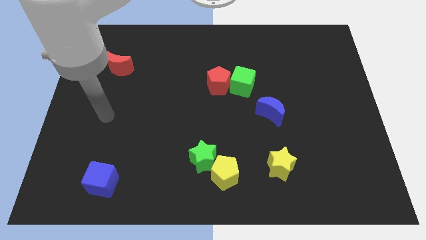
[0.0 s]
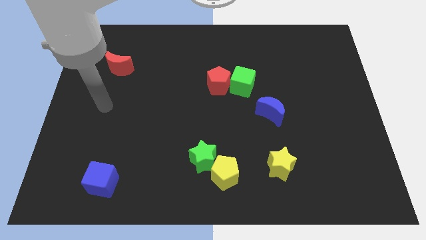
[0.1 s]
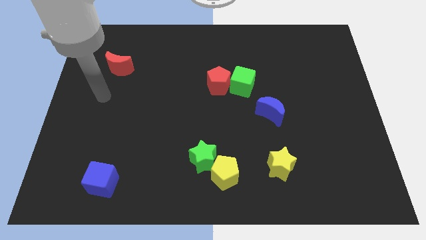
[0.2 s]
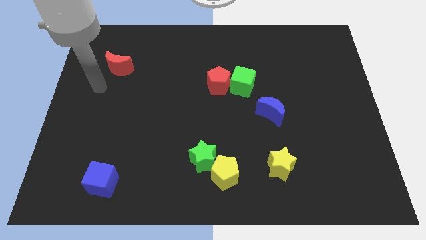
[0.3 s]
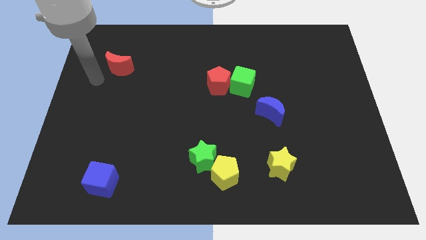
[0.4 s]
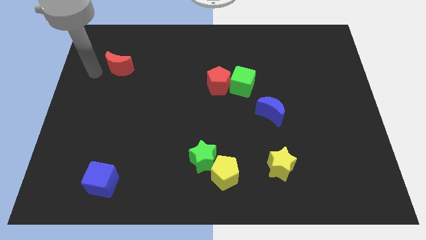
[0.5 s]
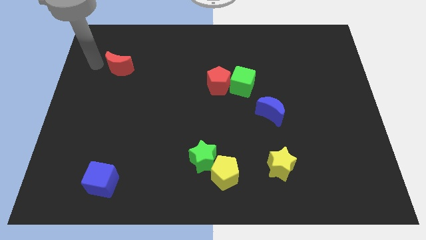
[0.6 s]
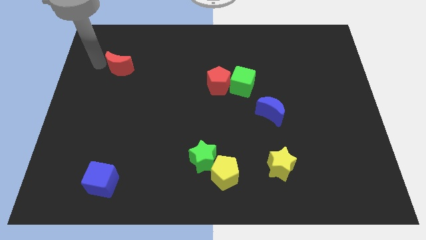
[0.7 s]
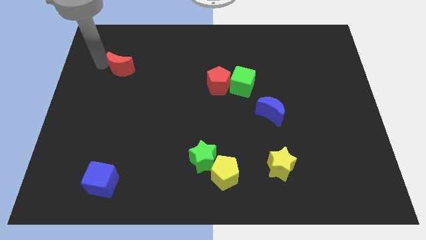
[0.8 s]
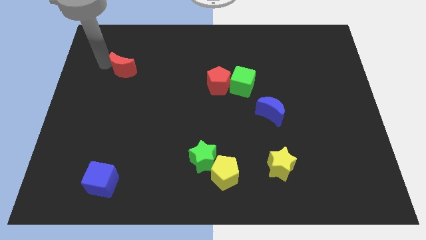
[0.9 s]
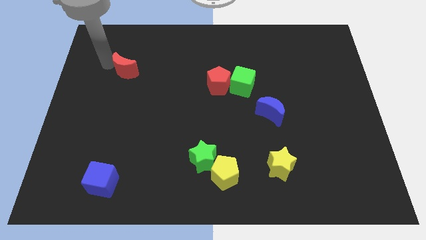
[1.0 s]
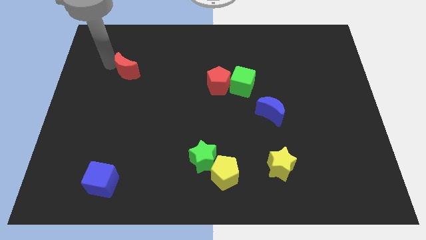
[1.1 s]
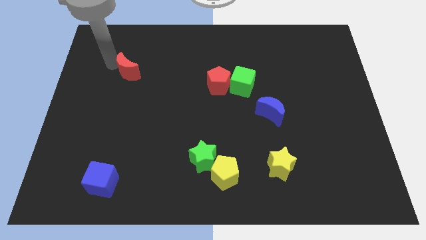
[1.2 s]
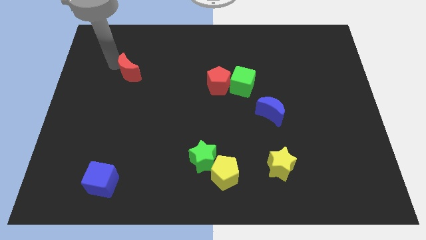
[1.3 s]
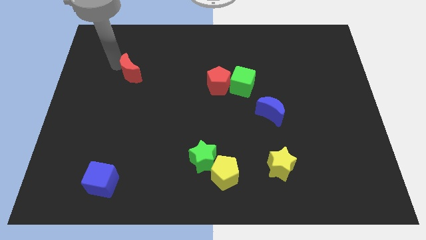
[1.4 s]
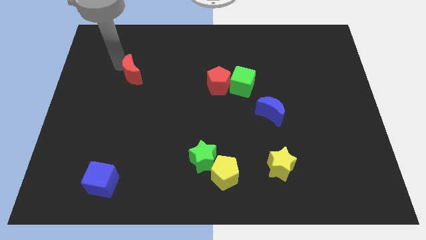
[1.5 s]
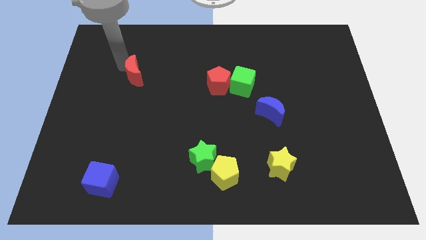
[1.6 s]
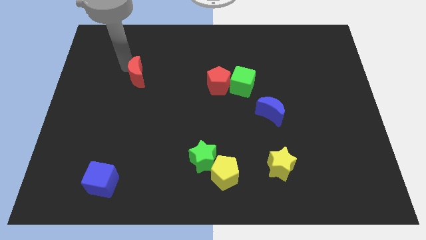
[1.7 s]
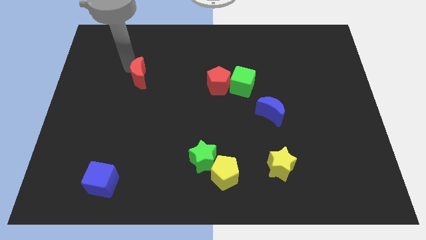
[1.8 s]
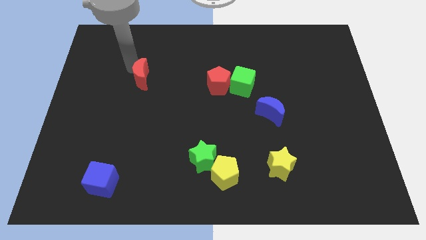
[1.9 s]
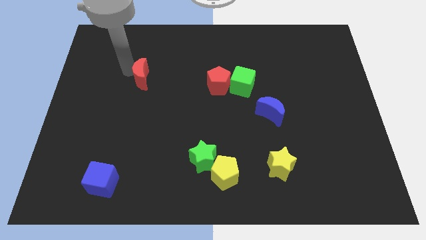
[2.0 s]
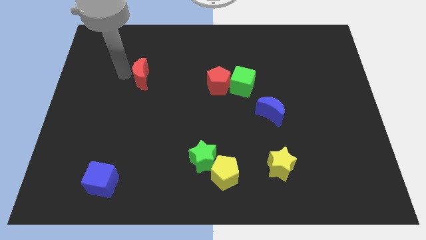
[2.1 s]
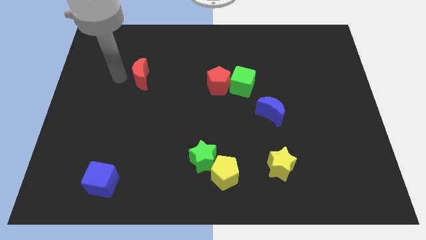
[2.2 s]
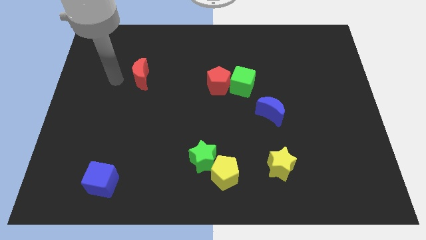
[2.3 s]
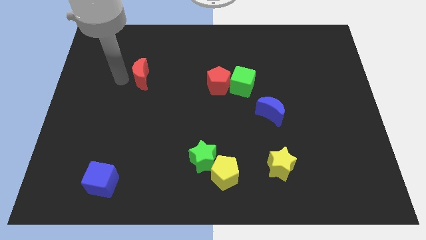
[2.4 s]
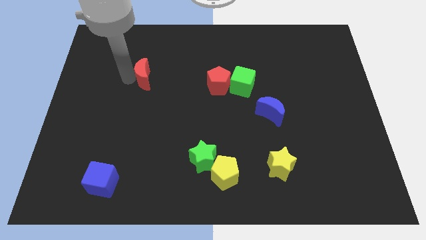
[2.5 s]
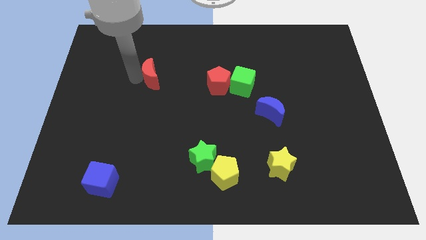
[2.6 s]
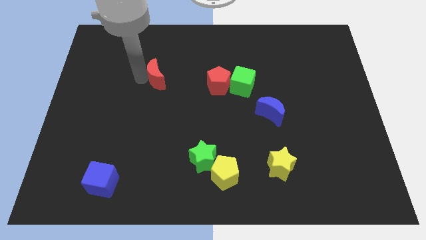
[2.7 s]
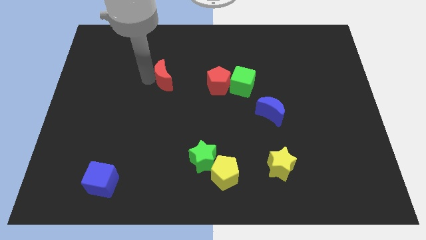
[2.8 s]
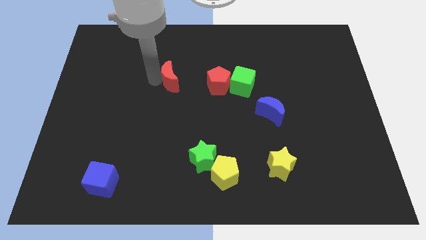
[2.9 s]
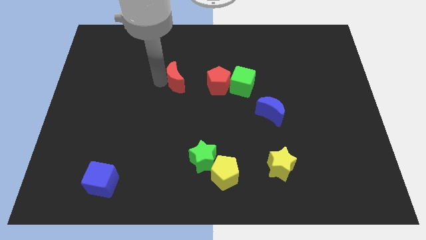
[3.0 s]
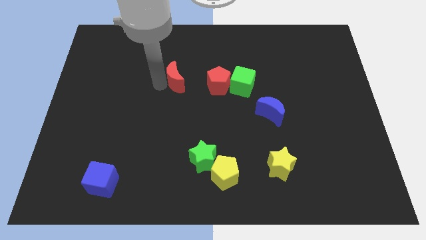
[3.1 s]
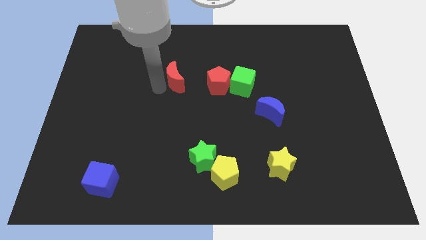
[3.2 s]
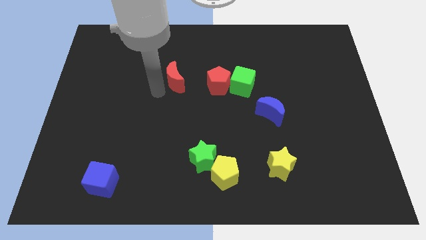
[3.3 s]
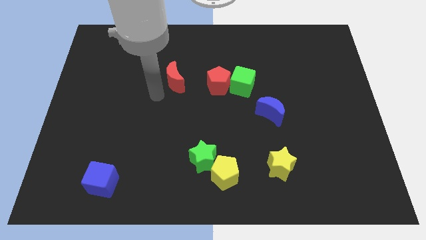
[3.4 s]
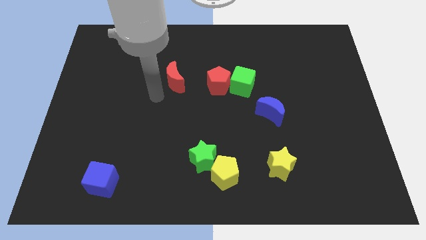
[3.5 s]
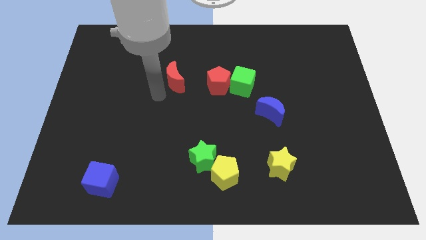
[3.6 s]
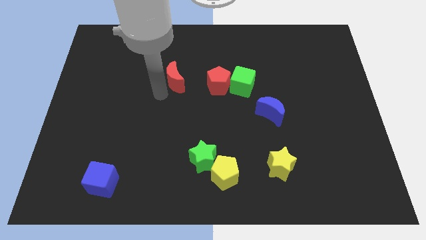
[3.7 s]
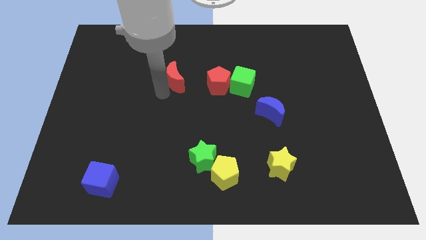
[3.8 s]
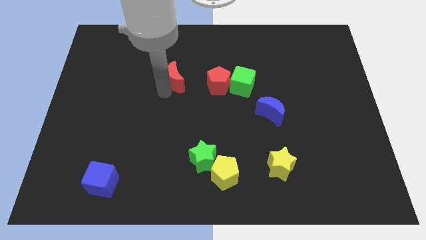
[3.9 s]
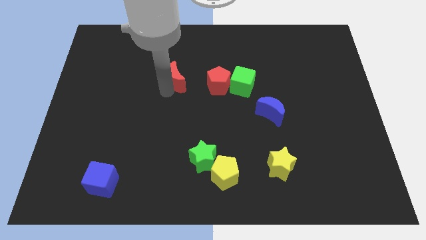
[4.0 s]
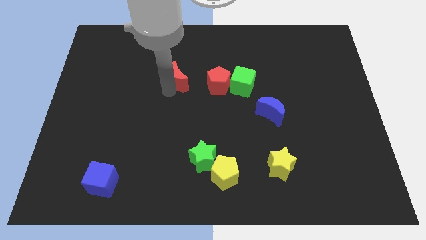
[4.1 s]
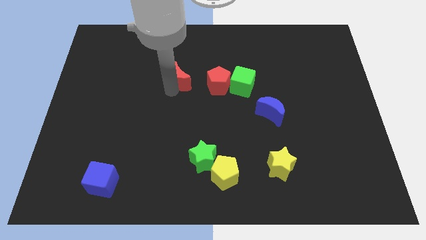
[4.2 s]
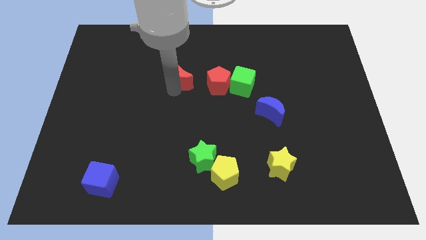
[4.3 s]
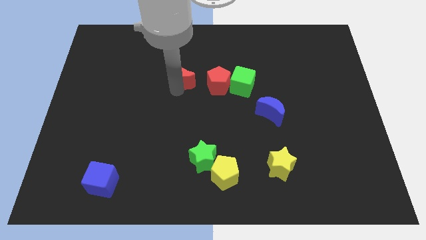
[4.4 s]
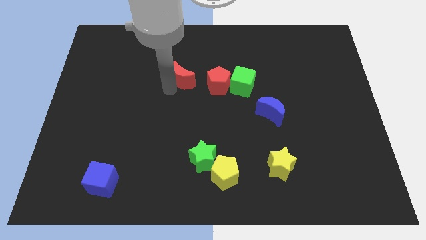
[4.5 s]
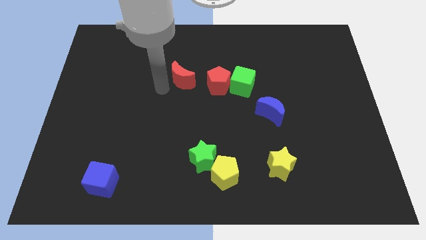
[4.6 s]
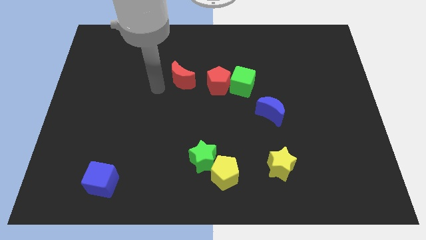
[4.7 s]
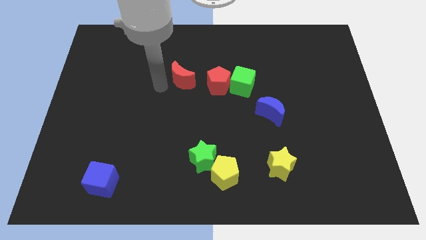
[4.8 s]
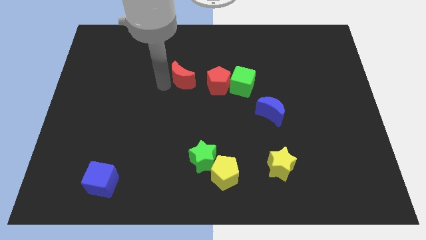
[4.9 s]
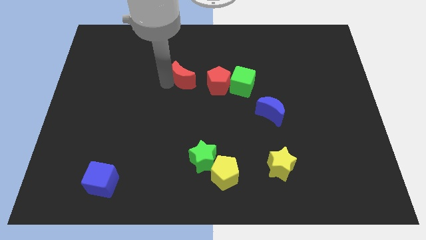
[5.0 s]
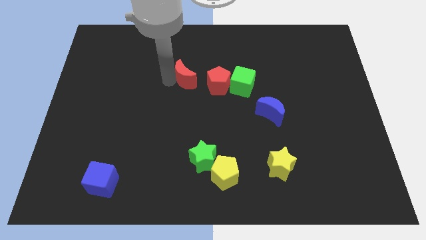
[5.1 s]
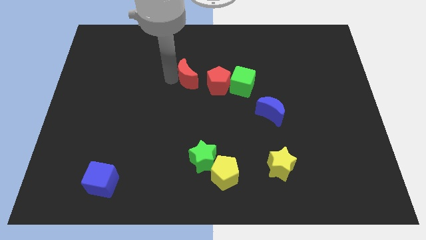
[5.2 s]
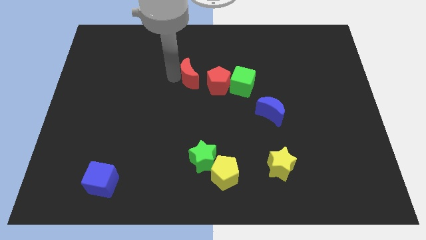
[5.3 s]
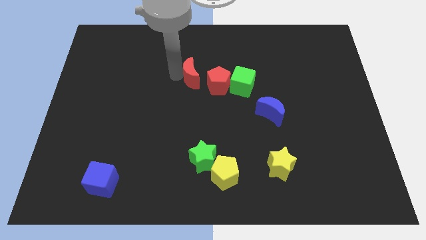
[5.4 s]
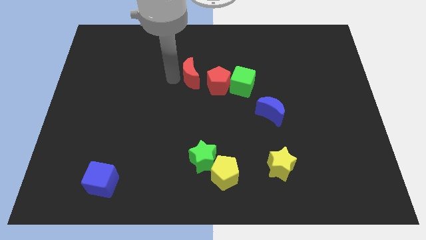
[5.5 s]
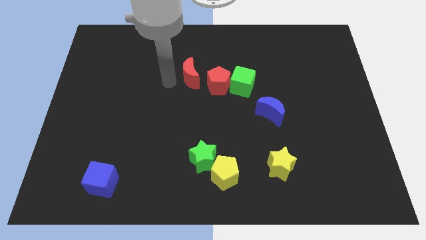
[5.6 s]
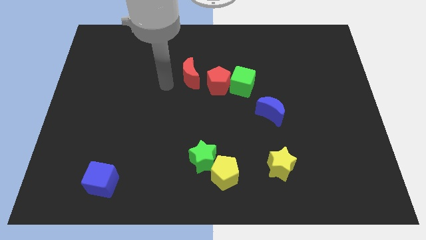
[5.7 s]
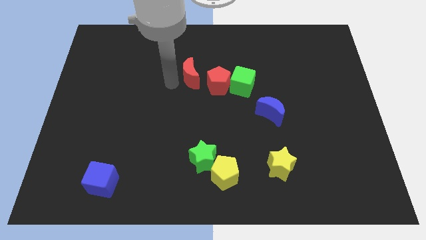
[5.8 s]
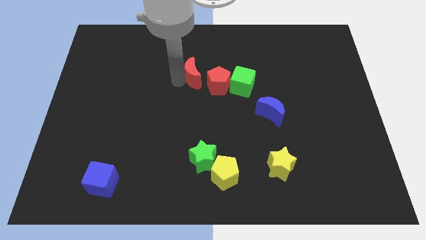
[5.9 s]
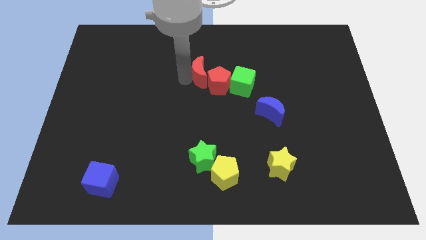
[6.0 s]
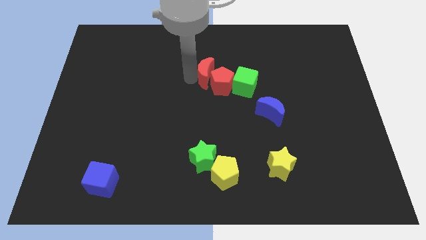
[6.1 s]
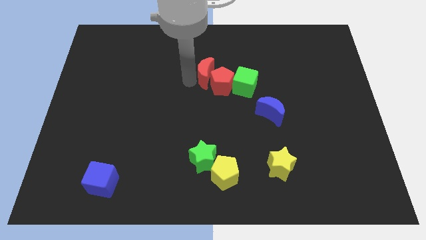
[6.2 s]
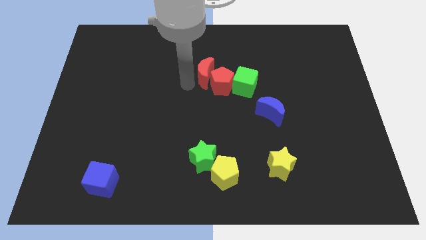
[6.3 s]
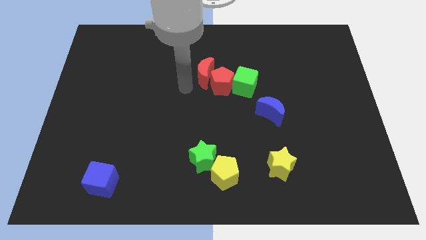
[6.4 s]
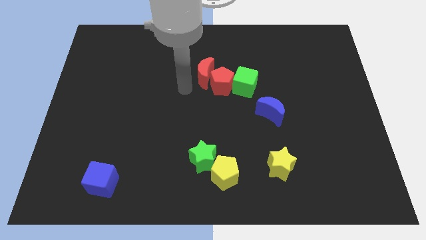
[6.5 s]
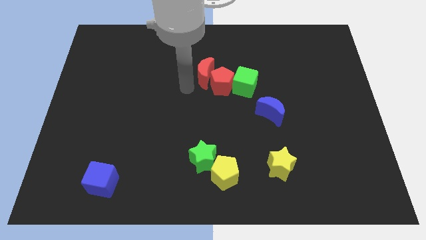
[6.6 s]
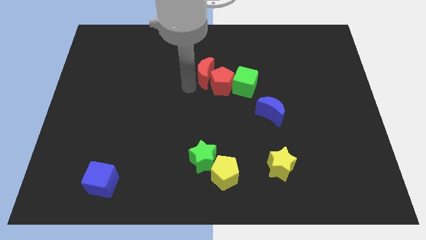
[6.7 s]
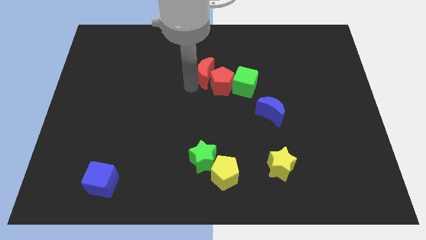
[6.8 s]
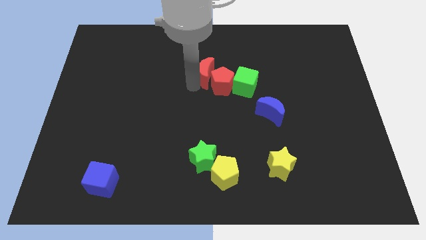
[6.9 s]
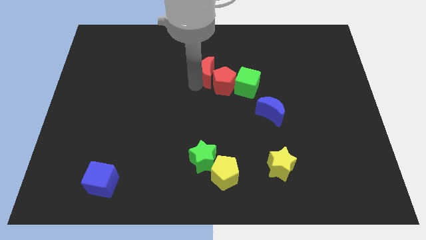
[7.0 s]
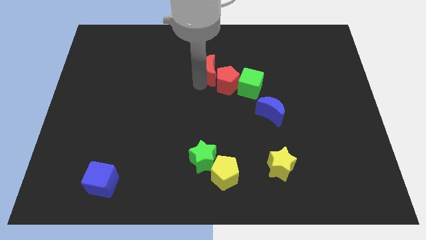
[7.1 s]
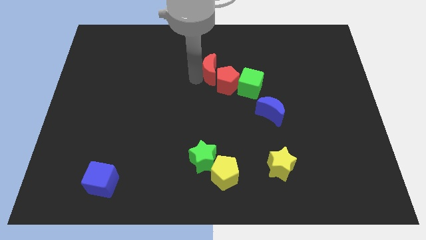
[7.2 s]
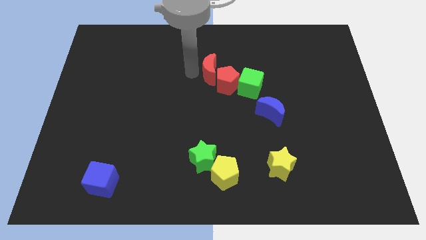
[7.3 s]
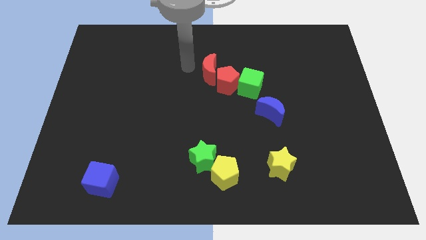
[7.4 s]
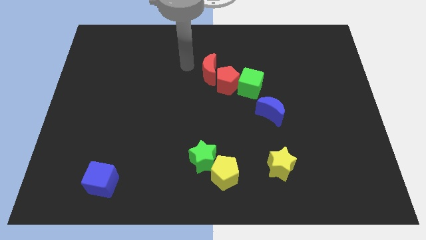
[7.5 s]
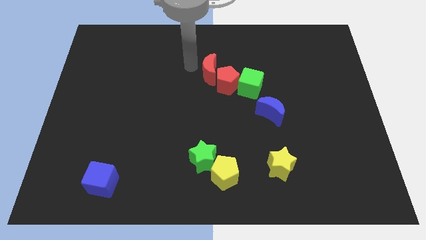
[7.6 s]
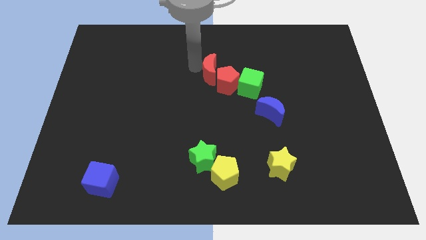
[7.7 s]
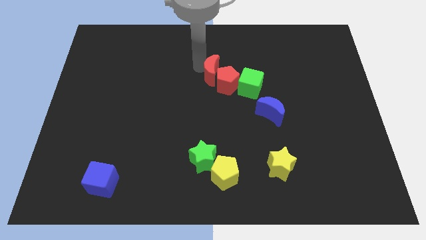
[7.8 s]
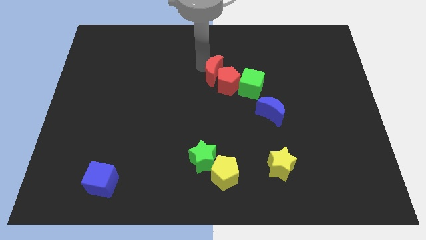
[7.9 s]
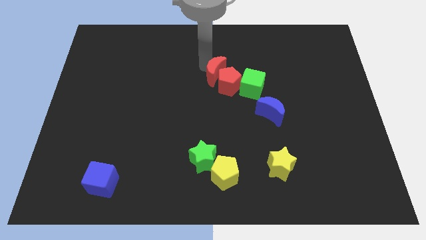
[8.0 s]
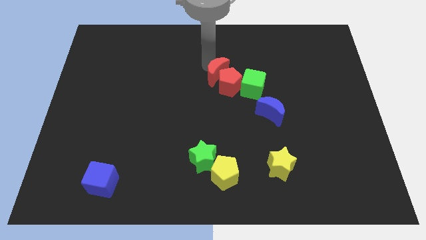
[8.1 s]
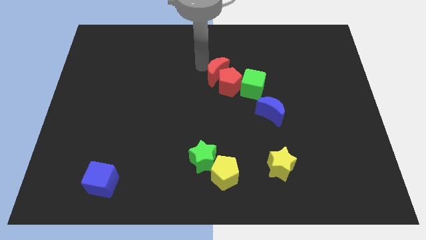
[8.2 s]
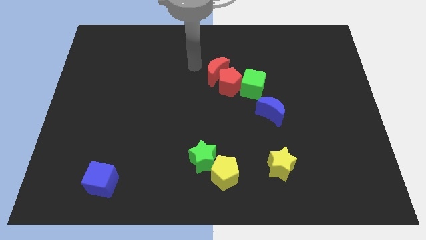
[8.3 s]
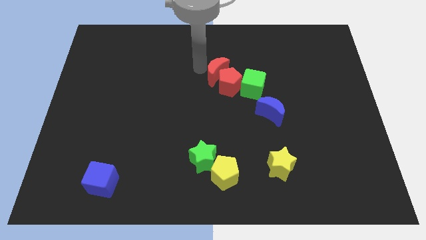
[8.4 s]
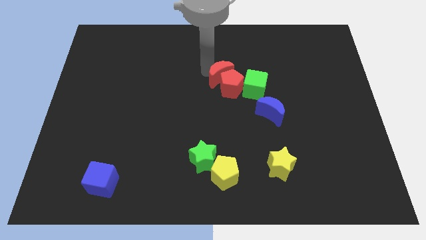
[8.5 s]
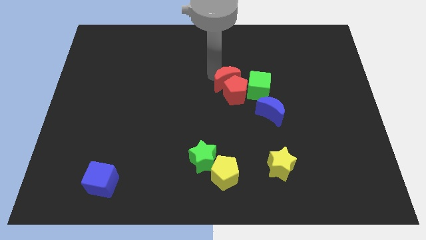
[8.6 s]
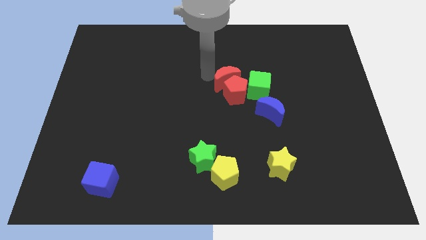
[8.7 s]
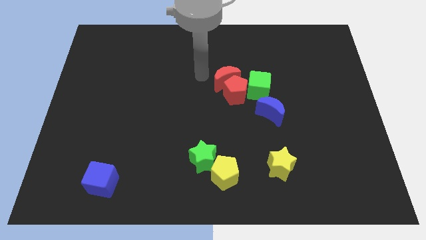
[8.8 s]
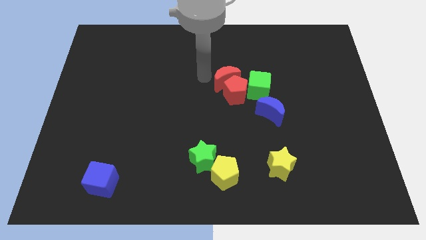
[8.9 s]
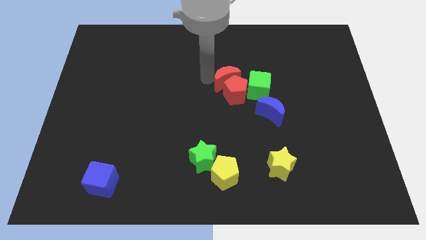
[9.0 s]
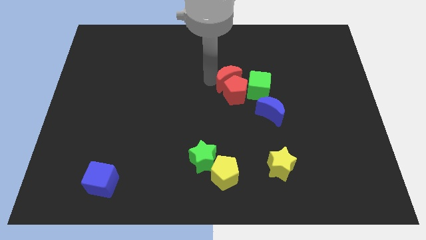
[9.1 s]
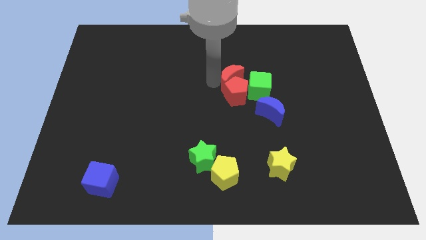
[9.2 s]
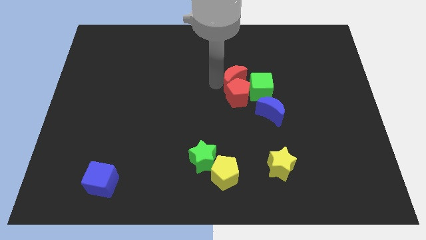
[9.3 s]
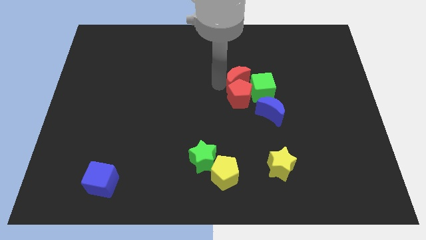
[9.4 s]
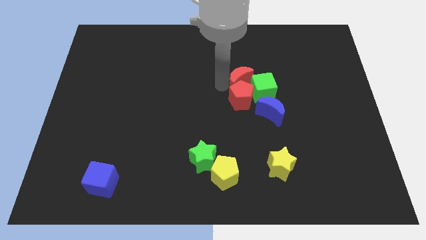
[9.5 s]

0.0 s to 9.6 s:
put the red moon next to the green cube
